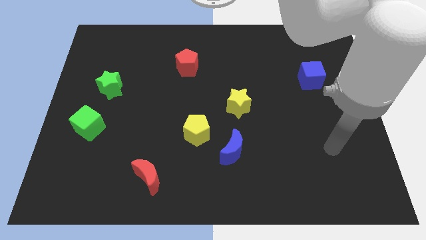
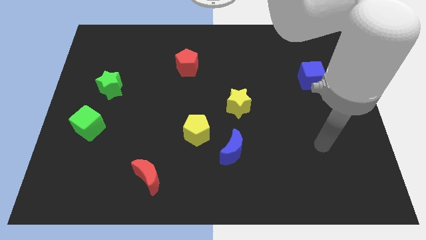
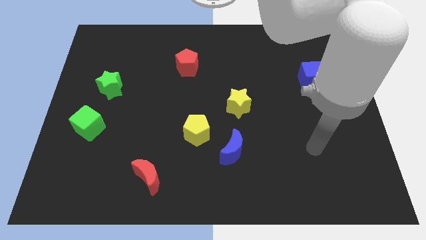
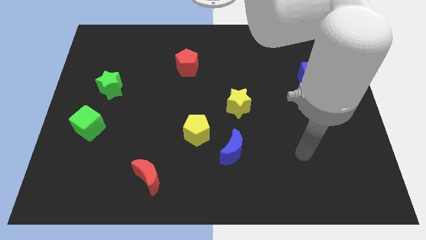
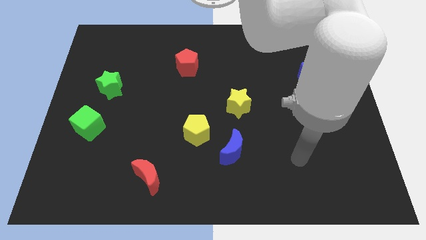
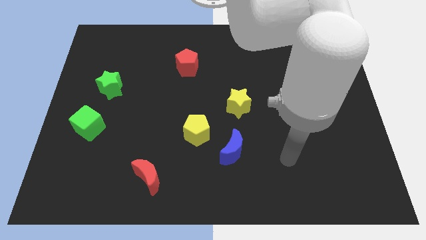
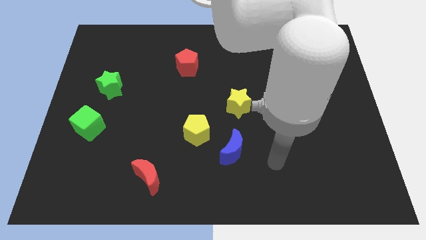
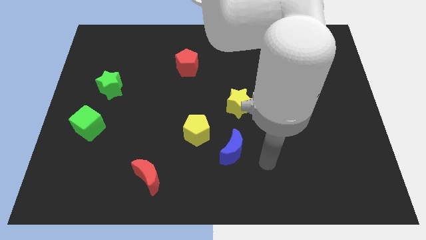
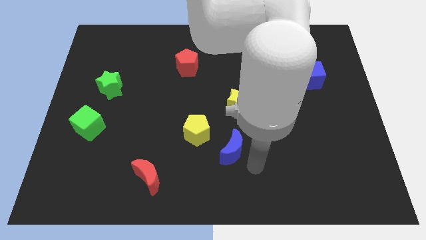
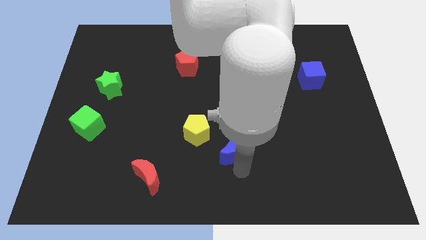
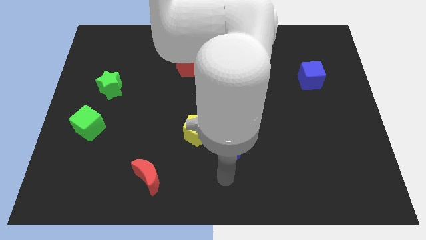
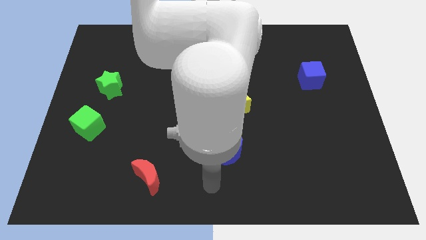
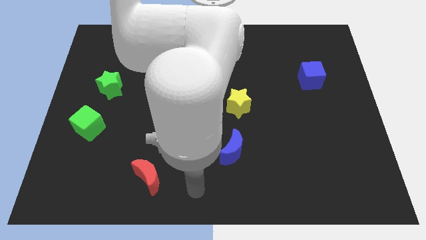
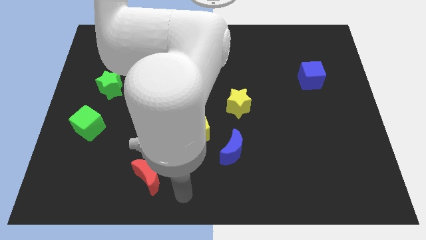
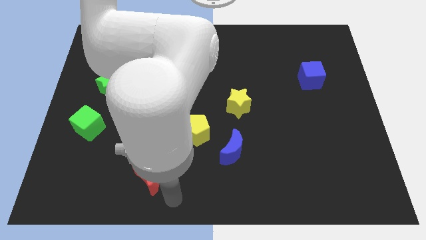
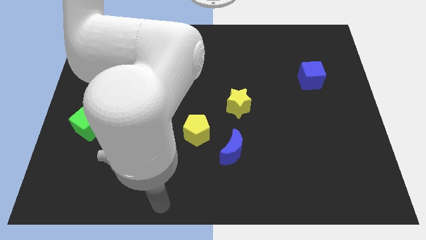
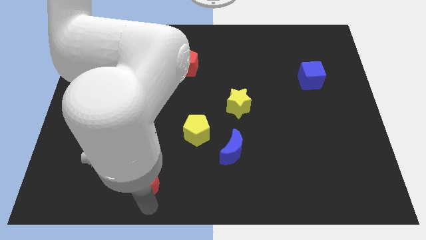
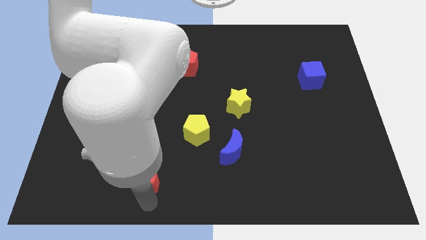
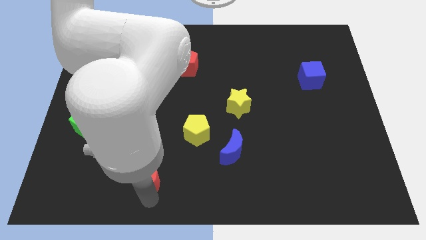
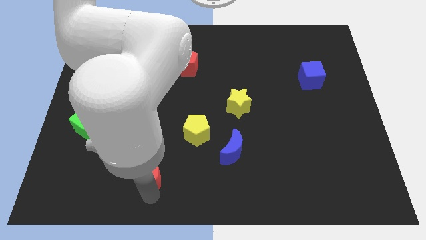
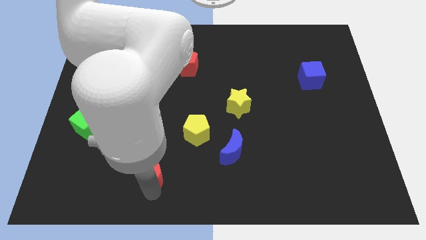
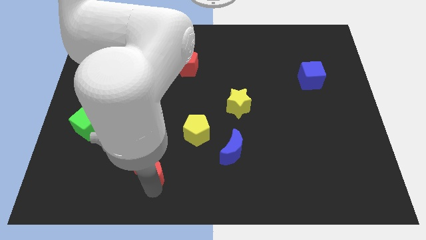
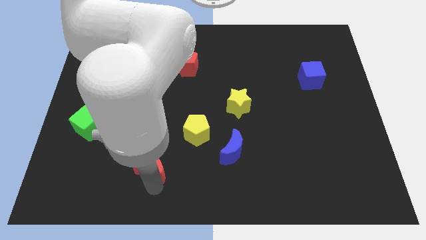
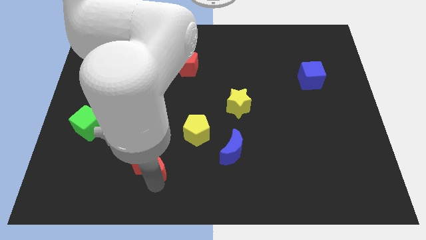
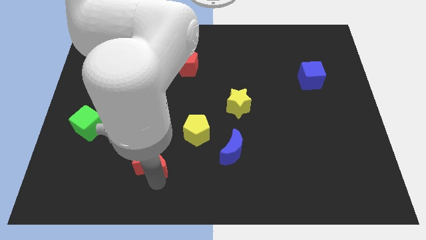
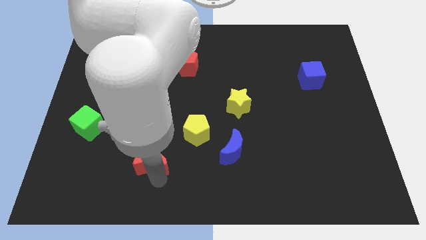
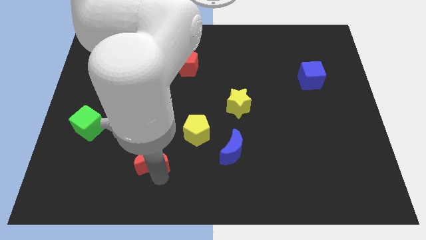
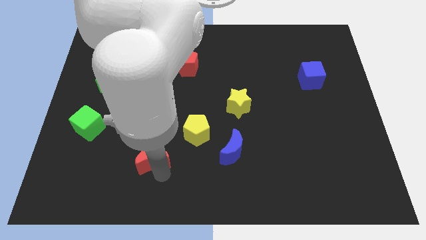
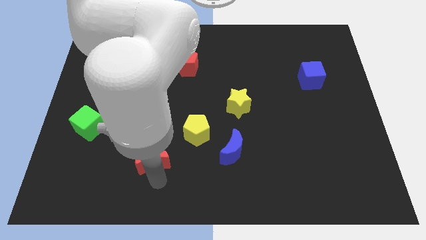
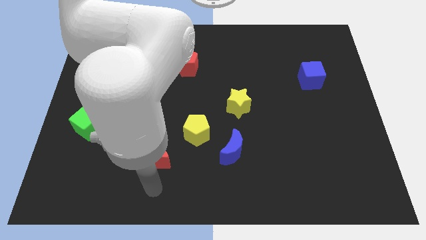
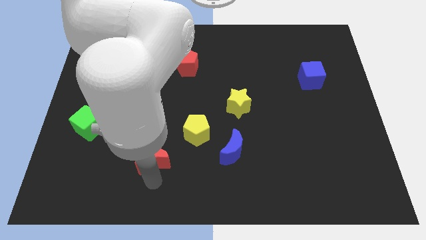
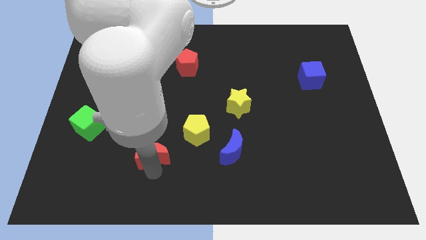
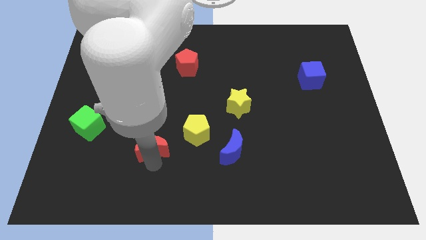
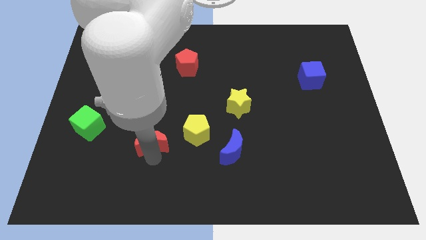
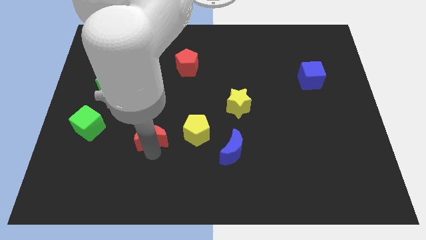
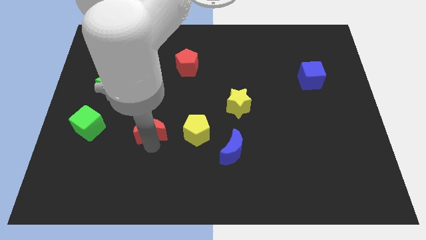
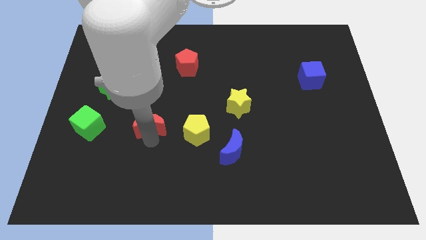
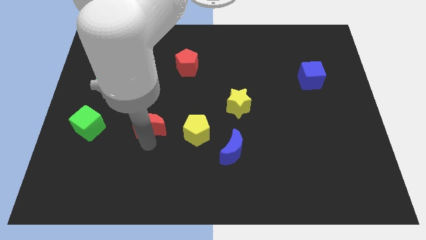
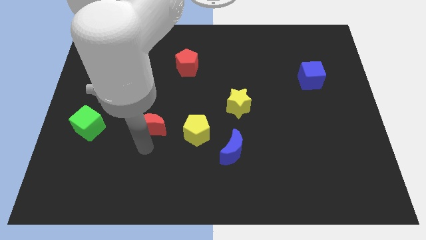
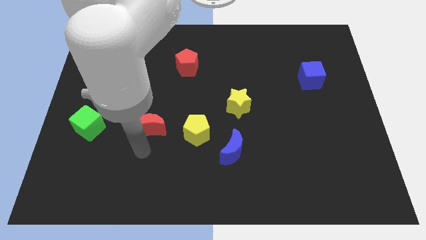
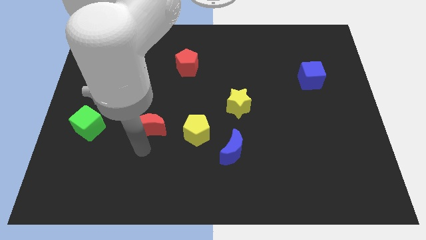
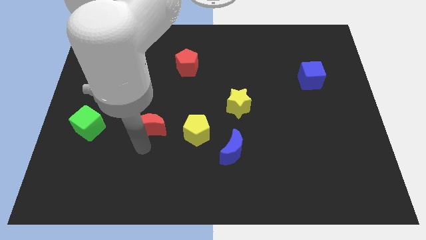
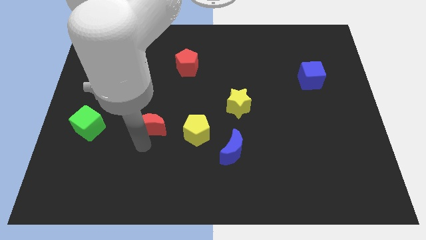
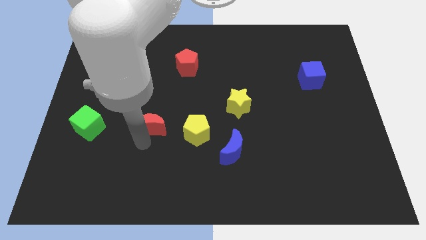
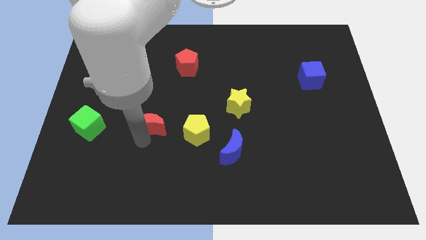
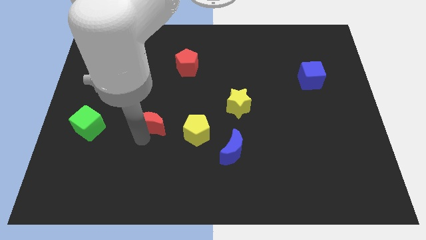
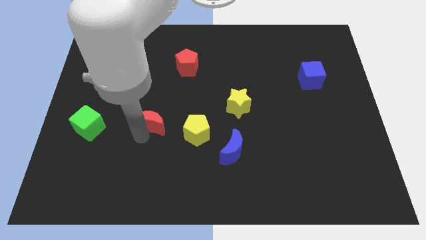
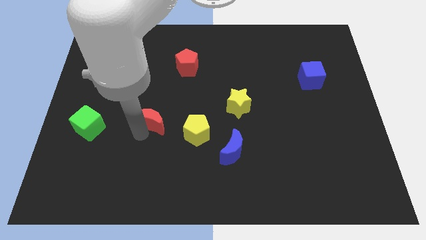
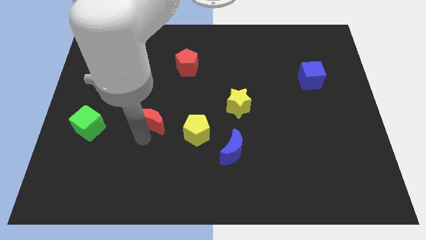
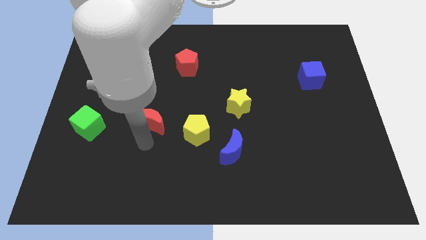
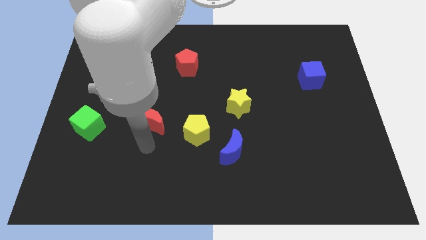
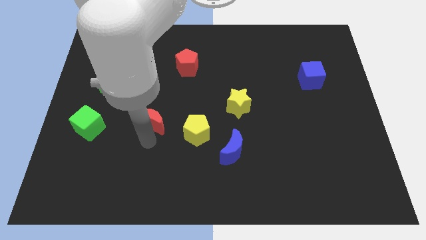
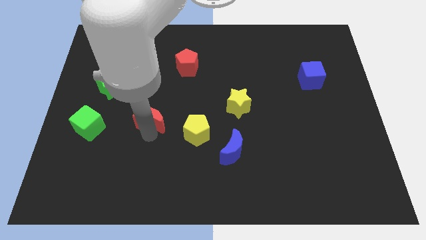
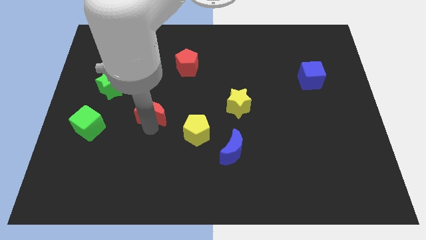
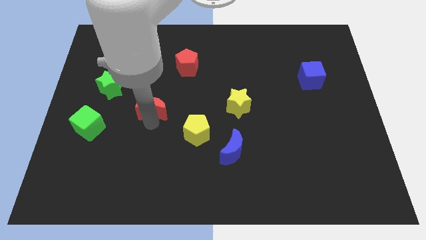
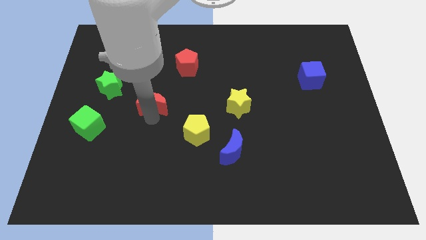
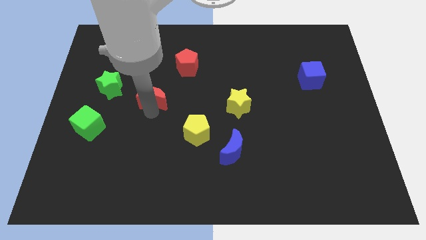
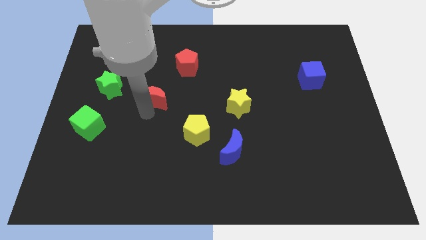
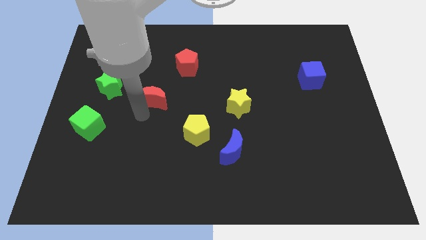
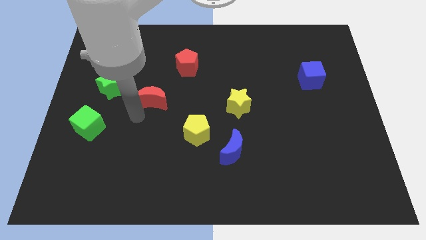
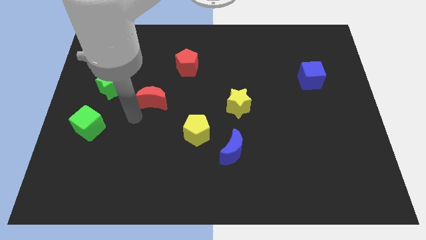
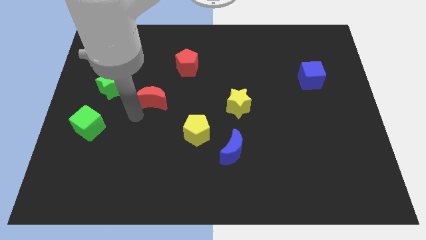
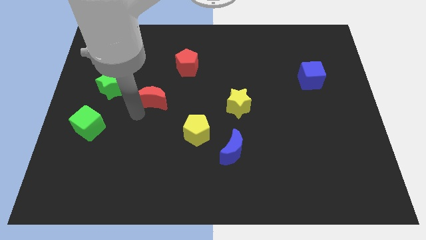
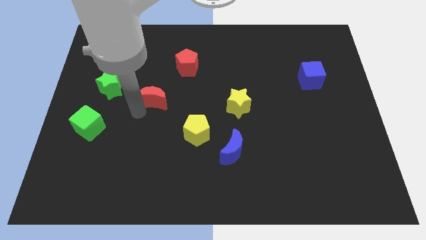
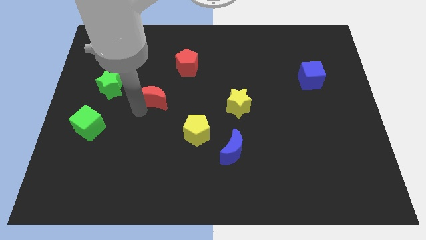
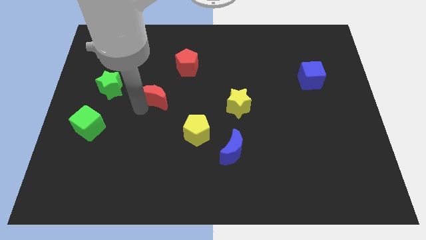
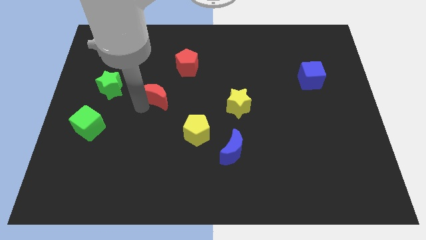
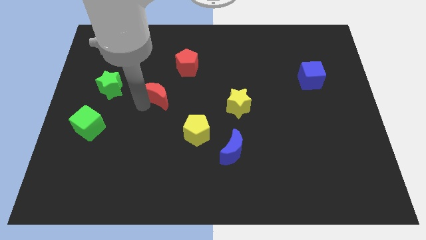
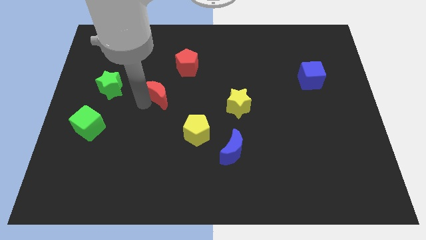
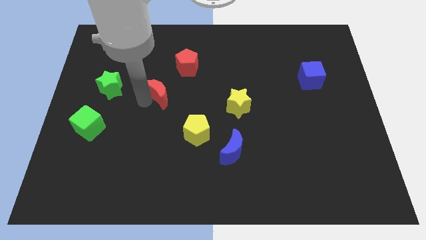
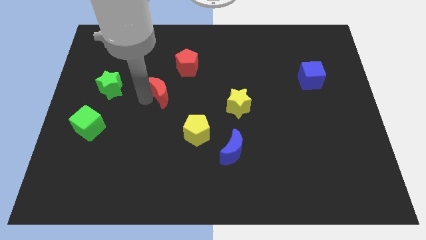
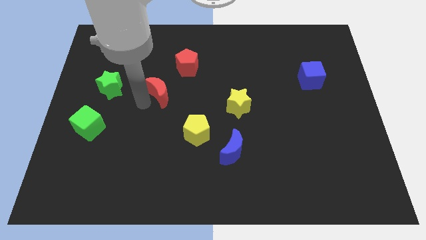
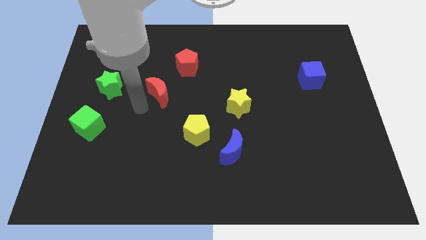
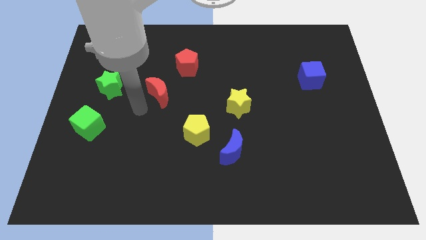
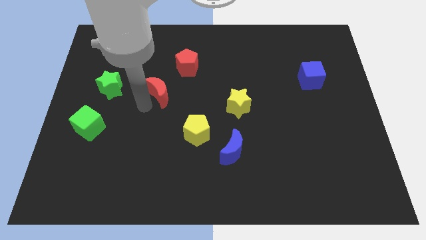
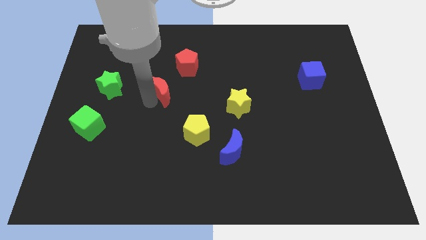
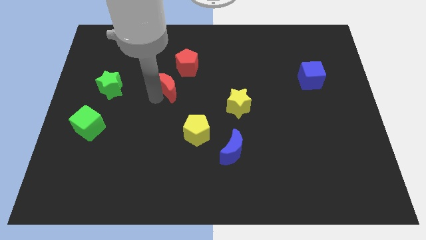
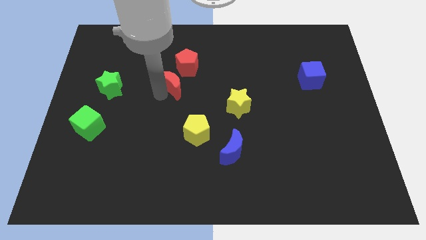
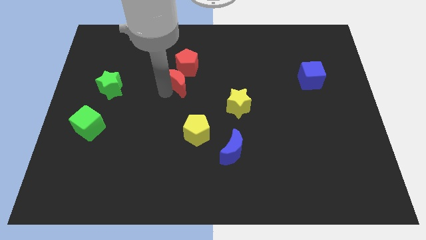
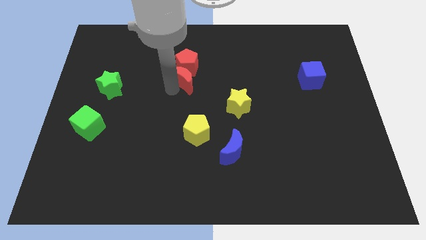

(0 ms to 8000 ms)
put the red moon close to the red pentagon
